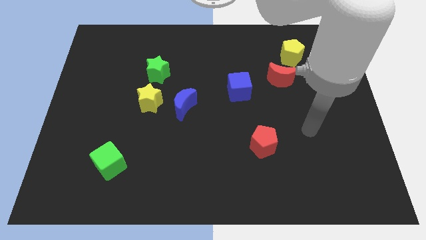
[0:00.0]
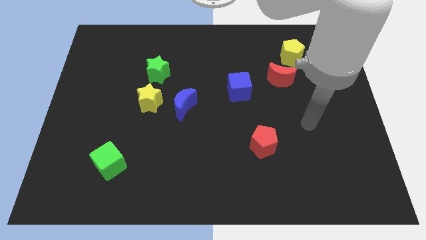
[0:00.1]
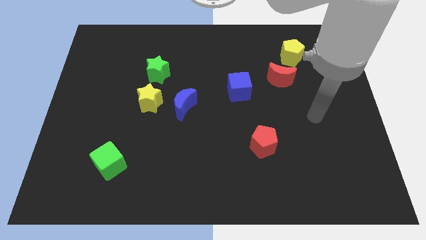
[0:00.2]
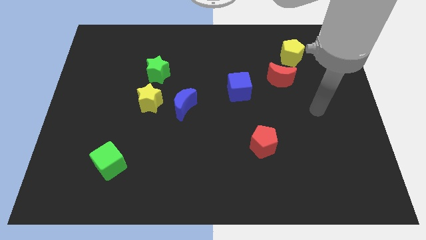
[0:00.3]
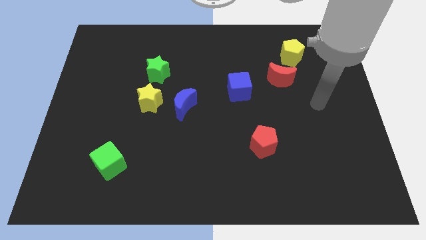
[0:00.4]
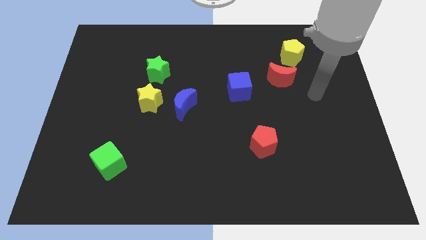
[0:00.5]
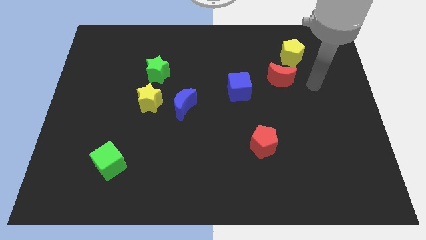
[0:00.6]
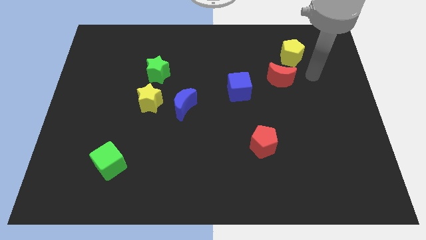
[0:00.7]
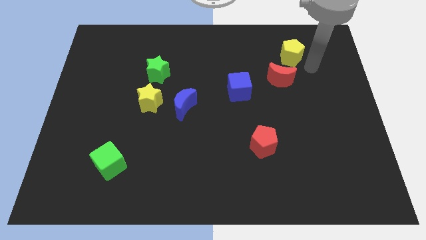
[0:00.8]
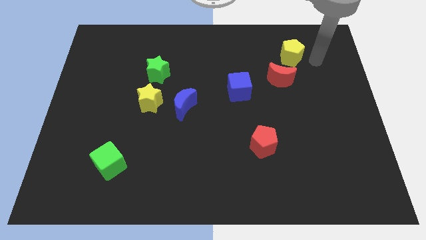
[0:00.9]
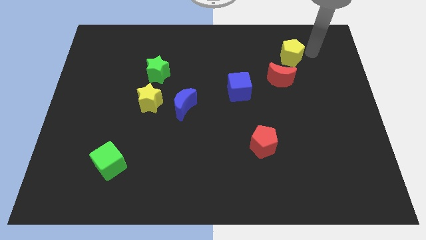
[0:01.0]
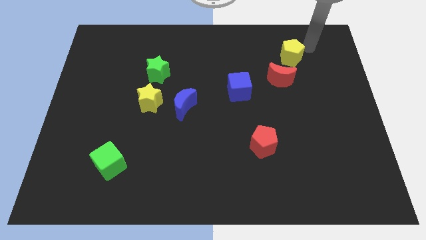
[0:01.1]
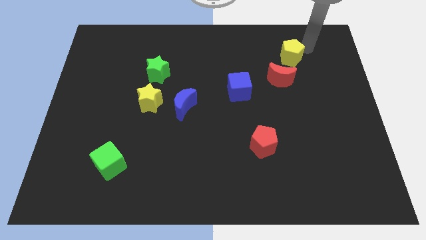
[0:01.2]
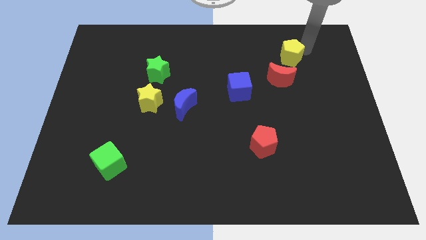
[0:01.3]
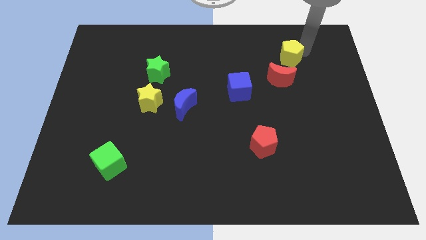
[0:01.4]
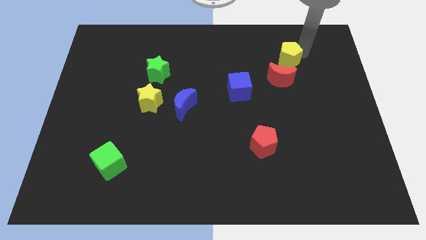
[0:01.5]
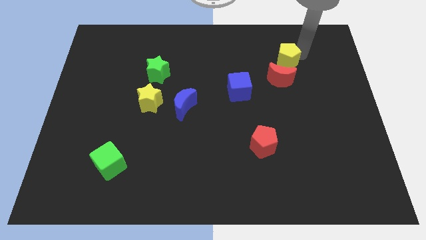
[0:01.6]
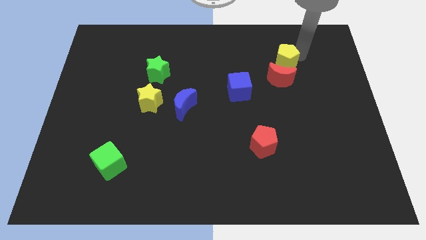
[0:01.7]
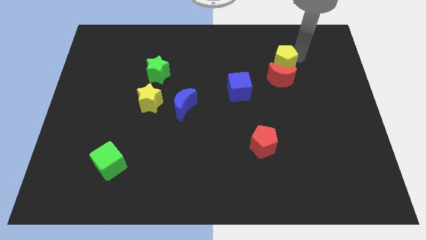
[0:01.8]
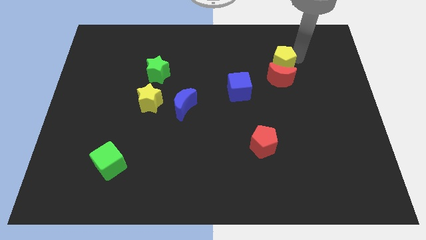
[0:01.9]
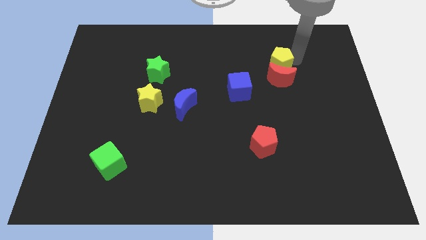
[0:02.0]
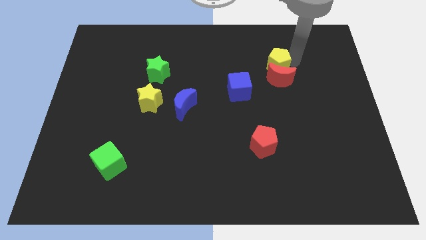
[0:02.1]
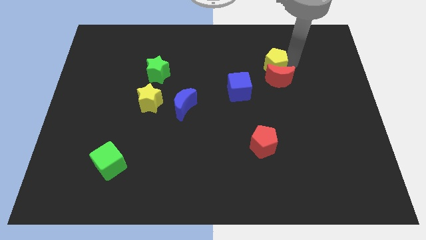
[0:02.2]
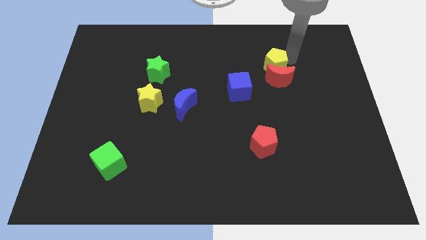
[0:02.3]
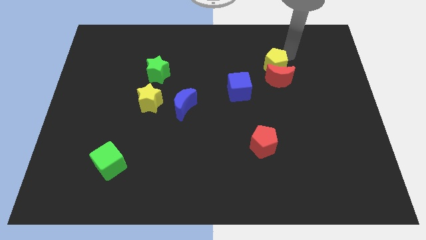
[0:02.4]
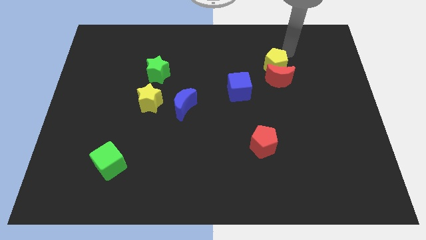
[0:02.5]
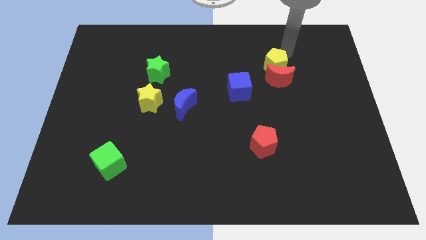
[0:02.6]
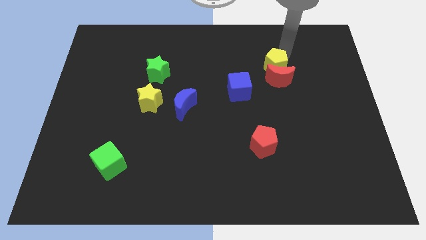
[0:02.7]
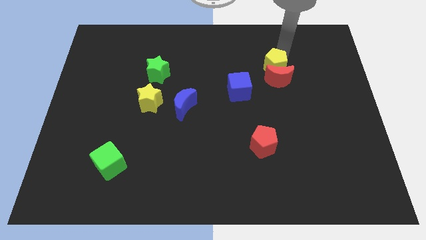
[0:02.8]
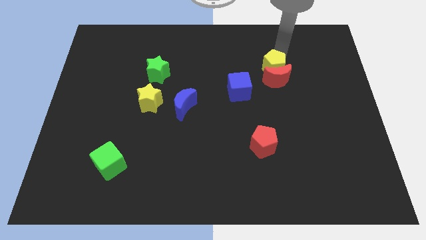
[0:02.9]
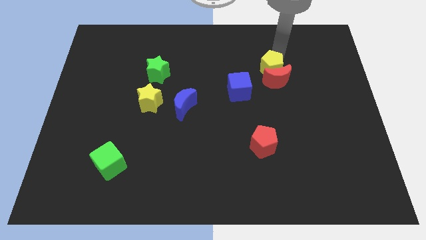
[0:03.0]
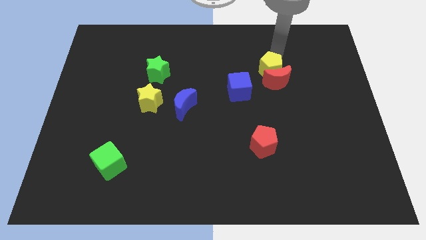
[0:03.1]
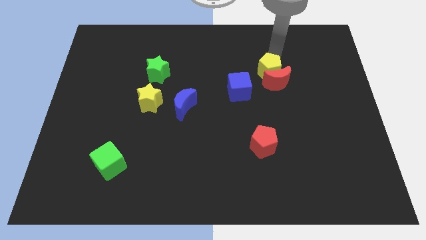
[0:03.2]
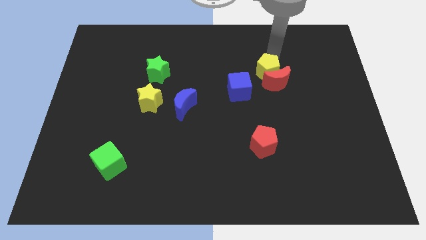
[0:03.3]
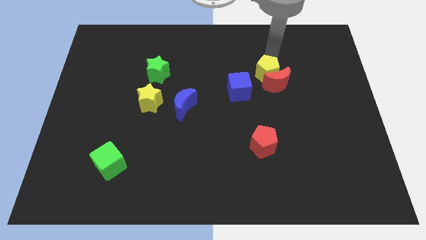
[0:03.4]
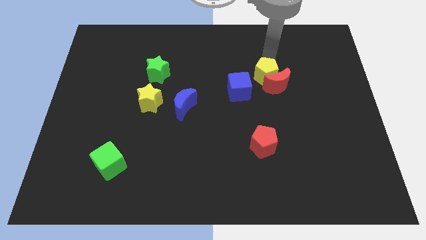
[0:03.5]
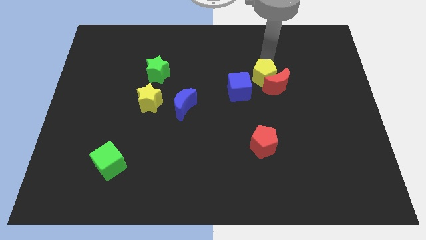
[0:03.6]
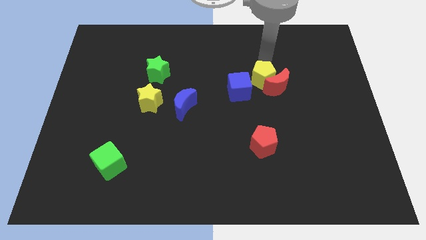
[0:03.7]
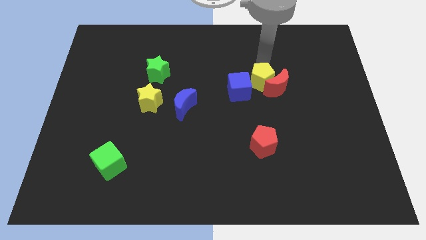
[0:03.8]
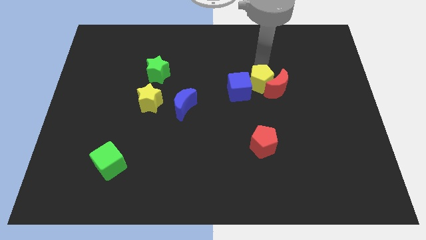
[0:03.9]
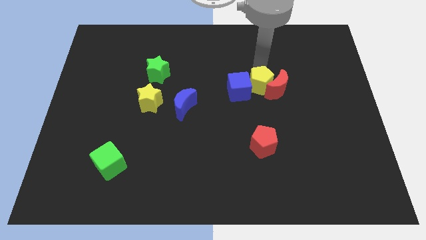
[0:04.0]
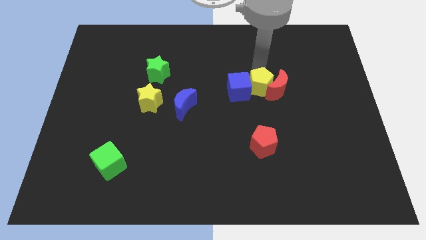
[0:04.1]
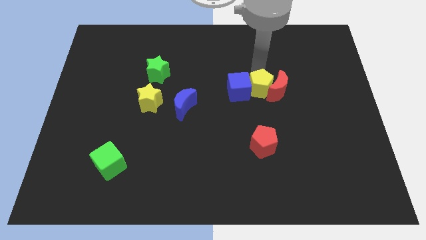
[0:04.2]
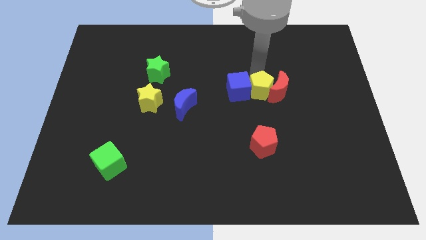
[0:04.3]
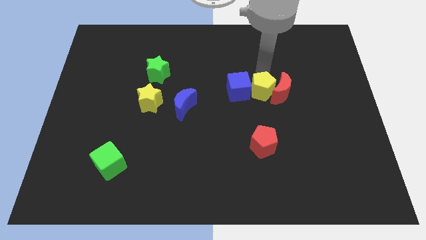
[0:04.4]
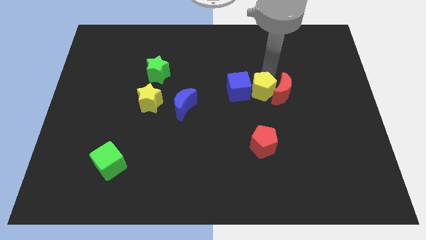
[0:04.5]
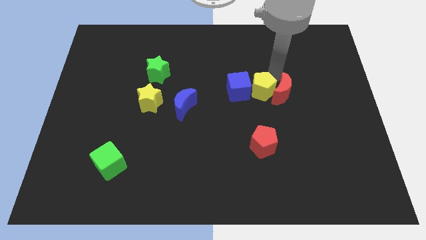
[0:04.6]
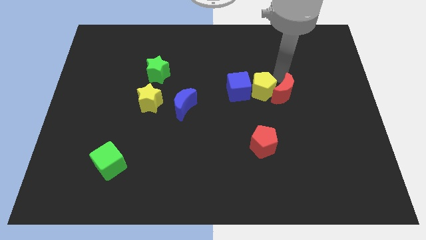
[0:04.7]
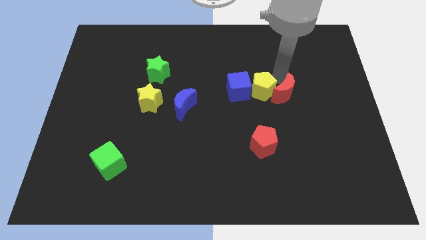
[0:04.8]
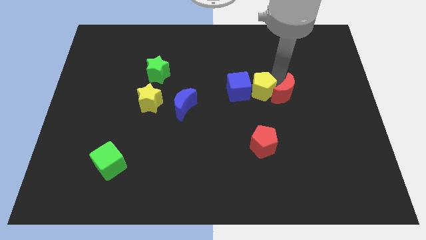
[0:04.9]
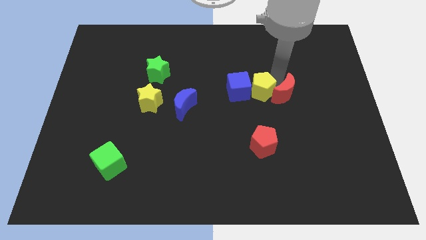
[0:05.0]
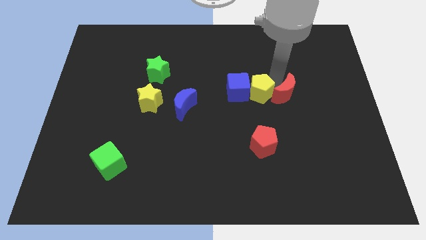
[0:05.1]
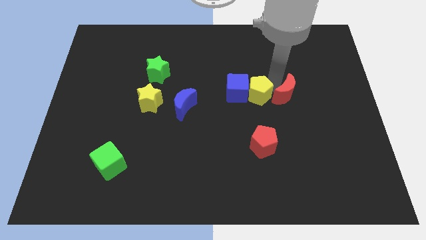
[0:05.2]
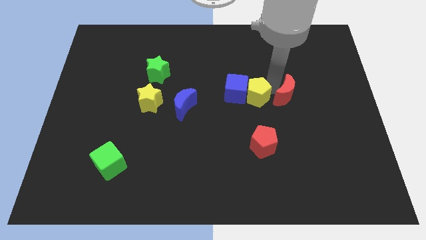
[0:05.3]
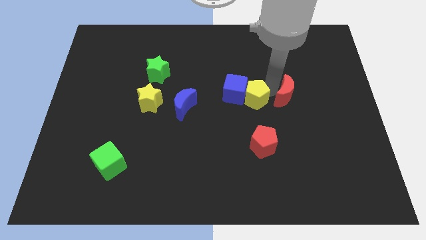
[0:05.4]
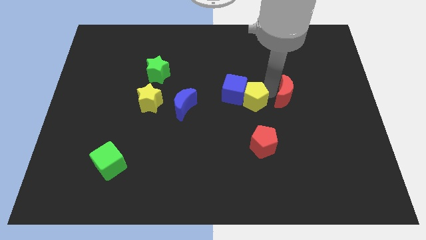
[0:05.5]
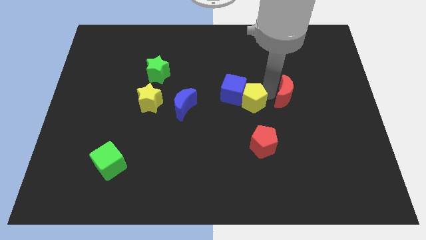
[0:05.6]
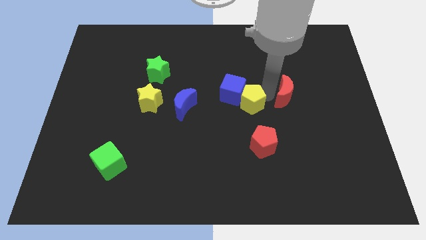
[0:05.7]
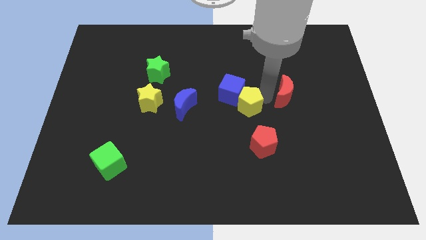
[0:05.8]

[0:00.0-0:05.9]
push the yellow pentagon diagonally downwards and to the left

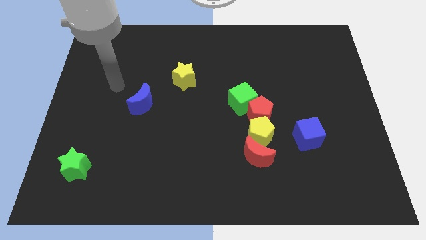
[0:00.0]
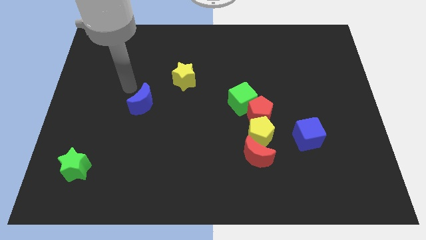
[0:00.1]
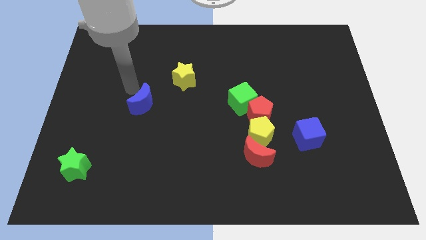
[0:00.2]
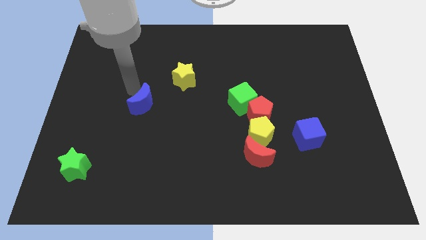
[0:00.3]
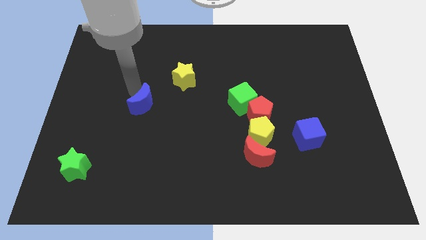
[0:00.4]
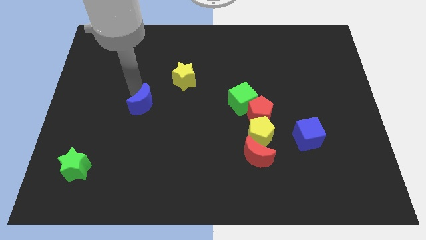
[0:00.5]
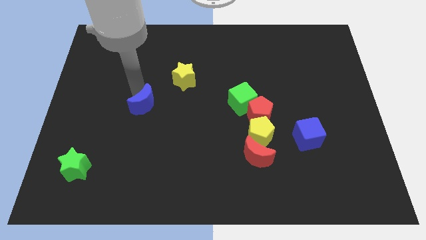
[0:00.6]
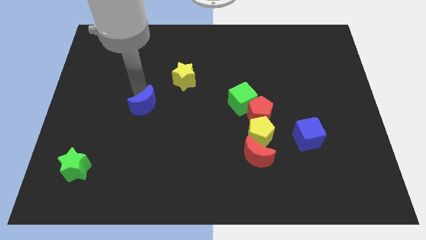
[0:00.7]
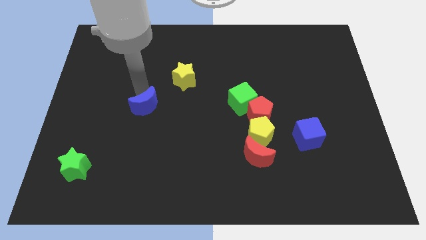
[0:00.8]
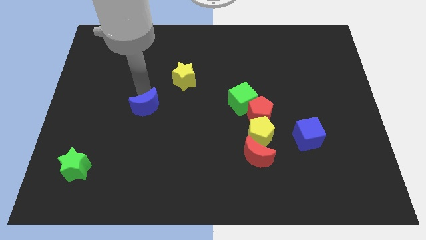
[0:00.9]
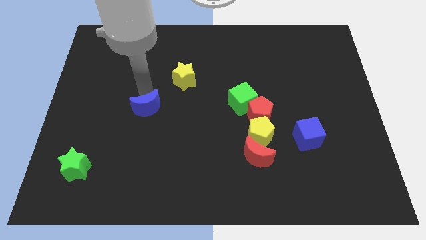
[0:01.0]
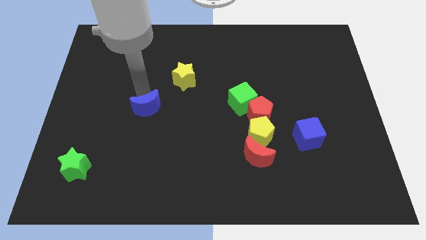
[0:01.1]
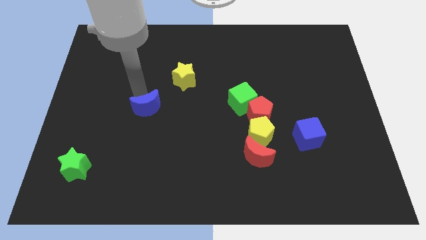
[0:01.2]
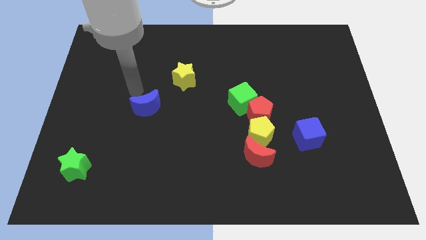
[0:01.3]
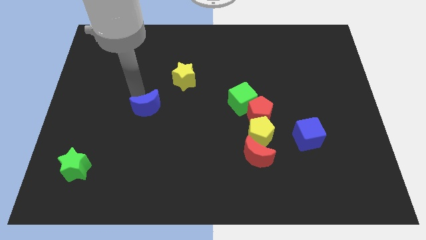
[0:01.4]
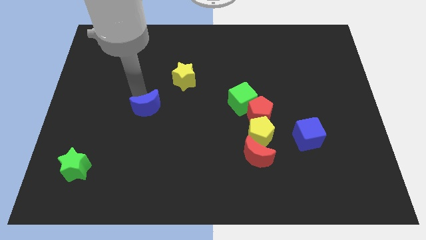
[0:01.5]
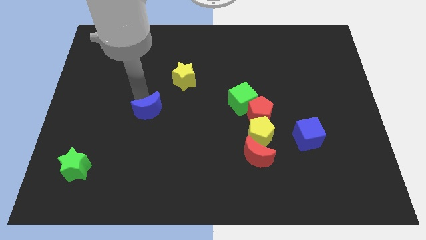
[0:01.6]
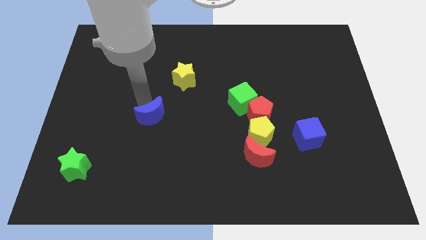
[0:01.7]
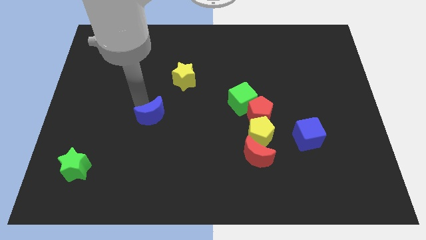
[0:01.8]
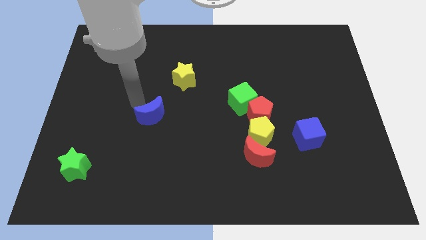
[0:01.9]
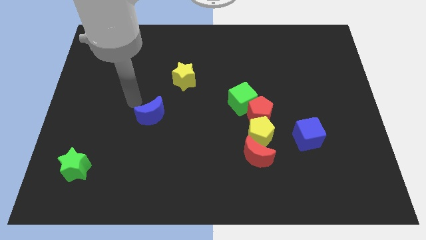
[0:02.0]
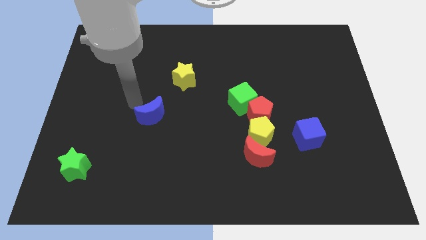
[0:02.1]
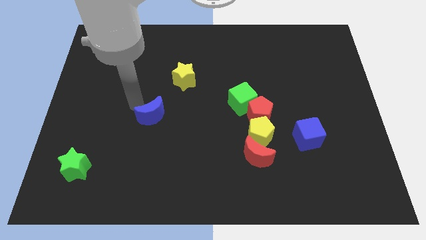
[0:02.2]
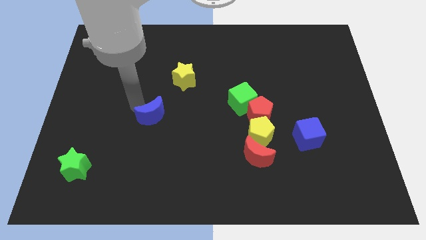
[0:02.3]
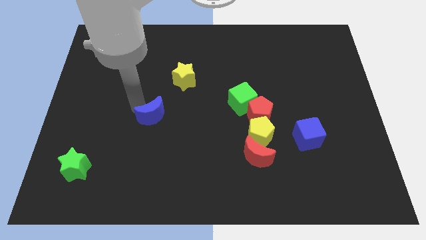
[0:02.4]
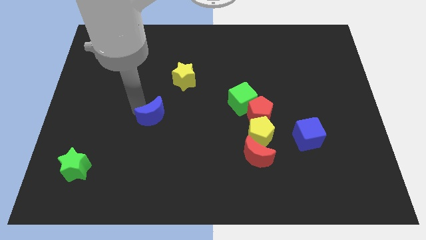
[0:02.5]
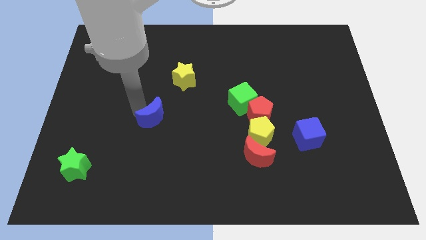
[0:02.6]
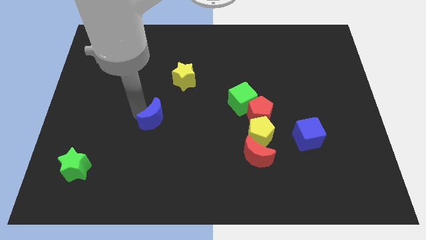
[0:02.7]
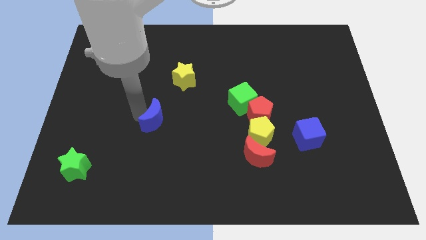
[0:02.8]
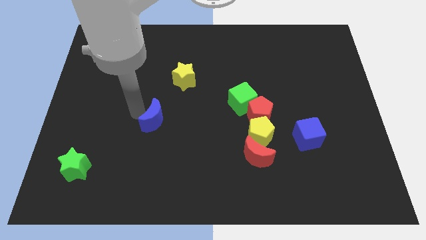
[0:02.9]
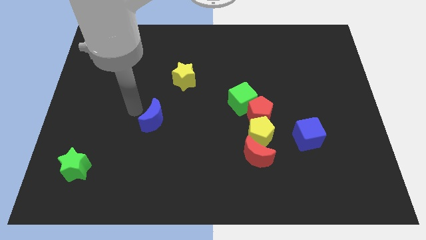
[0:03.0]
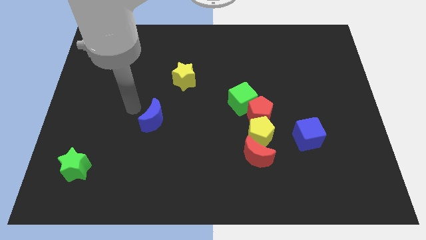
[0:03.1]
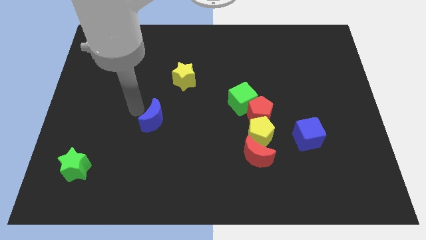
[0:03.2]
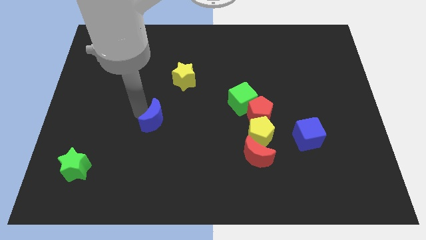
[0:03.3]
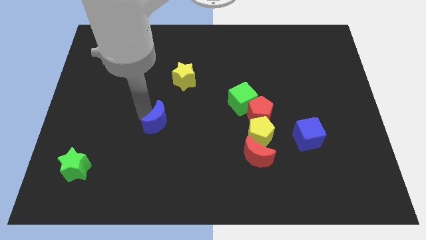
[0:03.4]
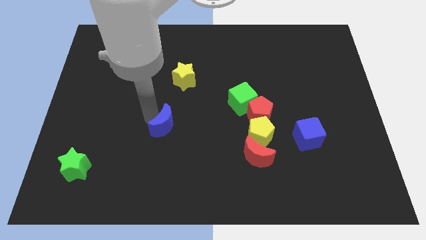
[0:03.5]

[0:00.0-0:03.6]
slightly move the blue moon diagonally down and right
